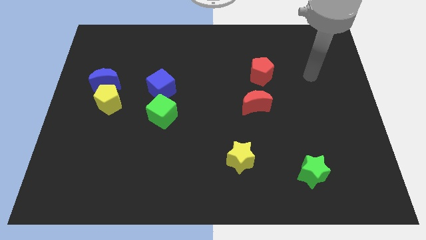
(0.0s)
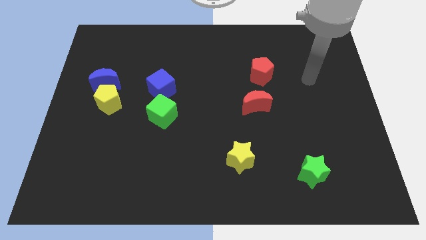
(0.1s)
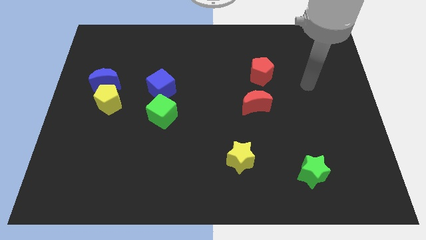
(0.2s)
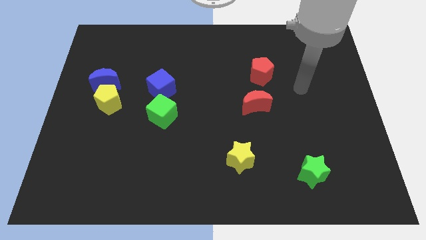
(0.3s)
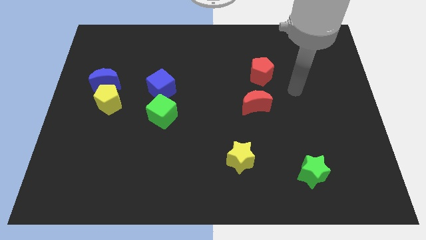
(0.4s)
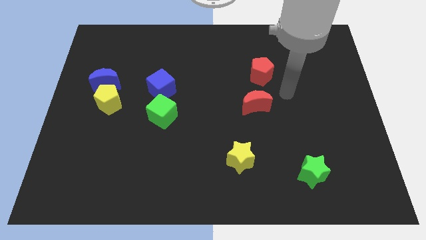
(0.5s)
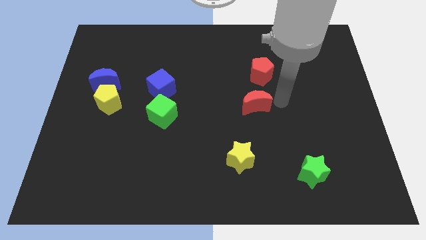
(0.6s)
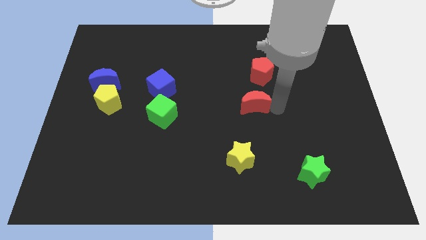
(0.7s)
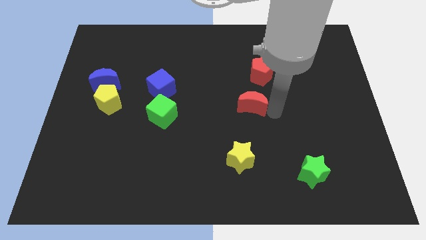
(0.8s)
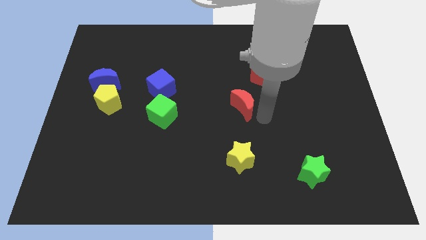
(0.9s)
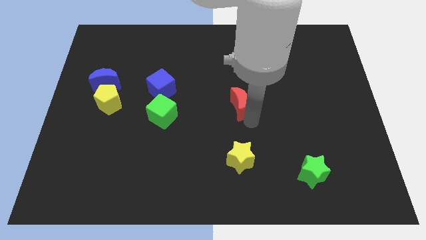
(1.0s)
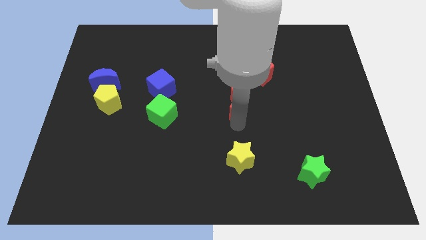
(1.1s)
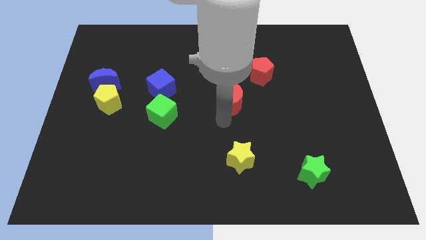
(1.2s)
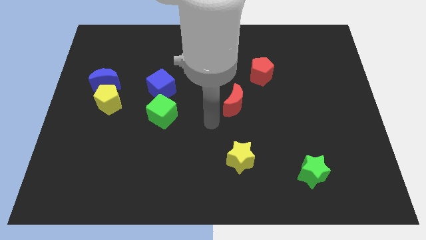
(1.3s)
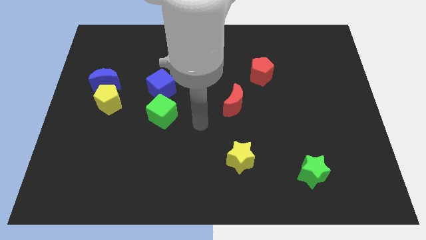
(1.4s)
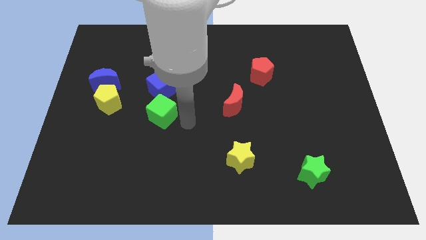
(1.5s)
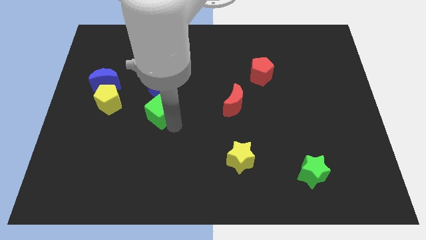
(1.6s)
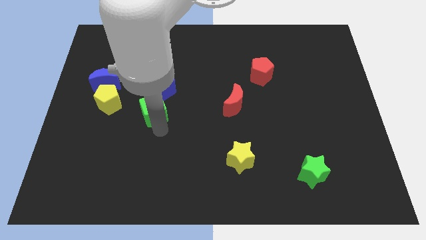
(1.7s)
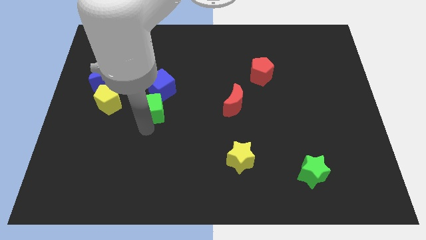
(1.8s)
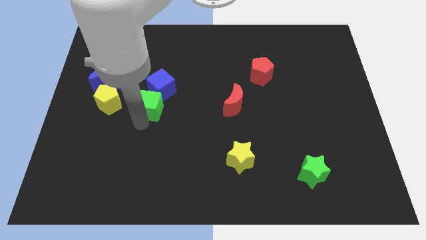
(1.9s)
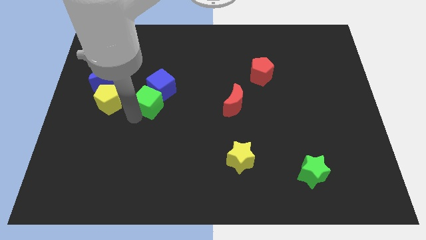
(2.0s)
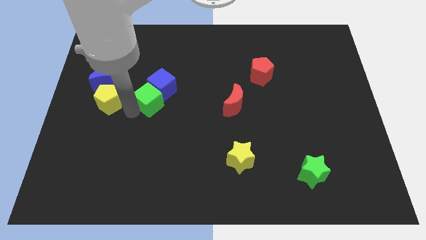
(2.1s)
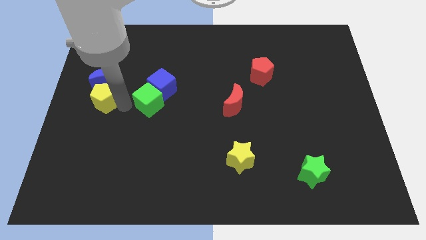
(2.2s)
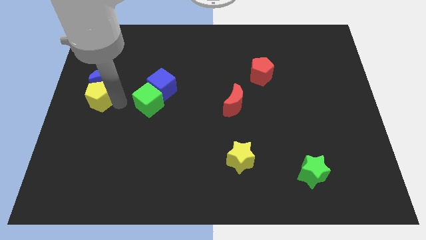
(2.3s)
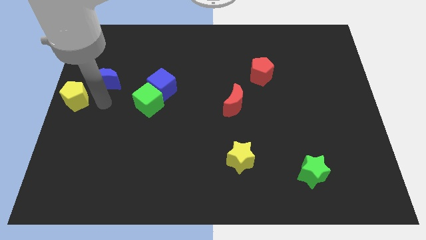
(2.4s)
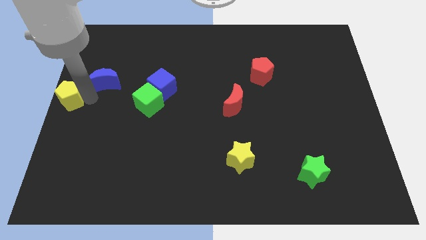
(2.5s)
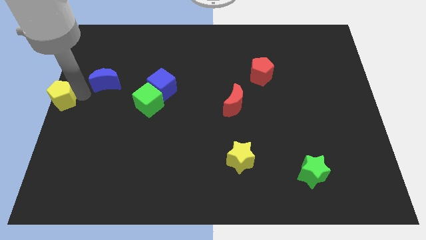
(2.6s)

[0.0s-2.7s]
separate the blue moon from the yellow pentagon

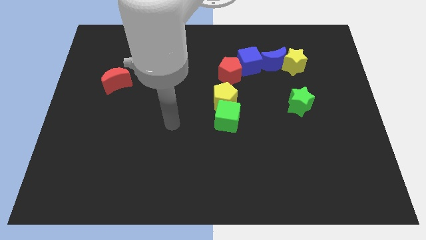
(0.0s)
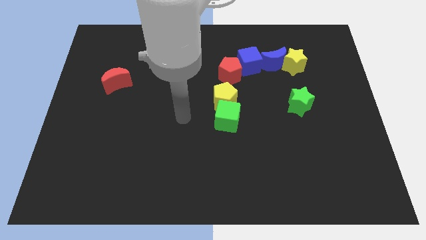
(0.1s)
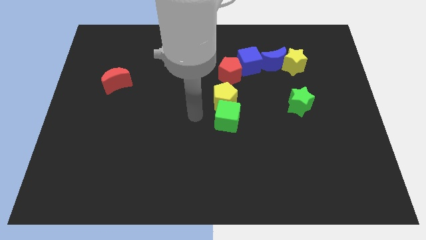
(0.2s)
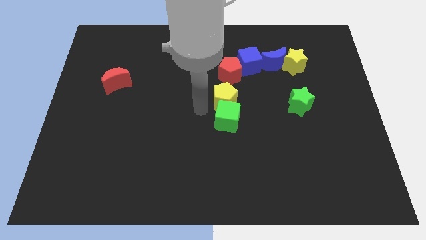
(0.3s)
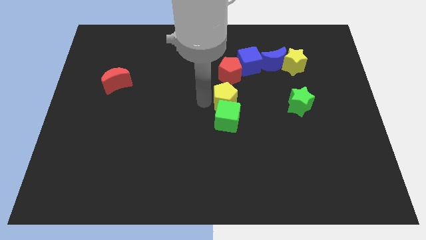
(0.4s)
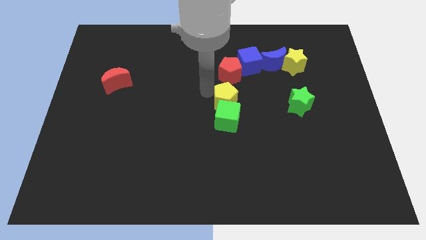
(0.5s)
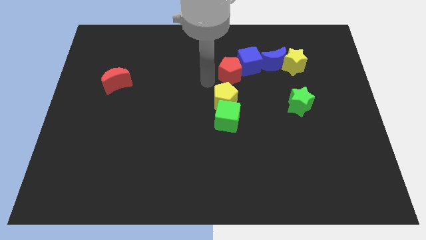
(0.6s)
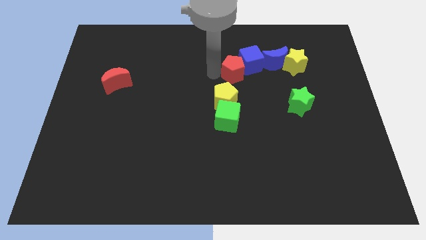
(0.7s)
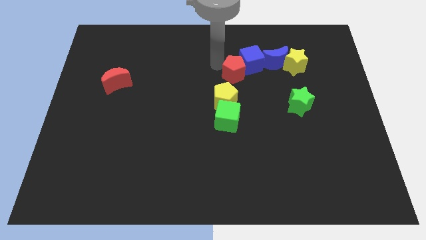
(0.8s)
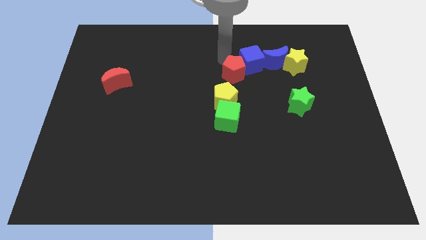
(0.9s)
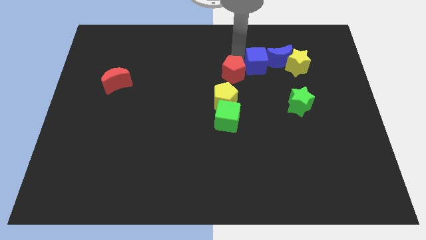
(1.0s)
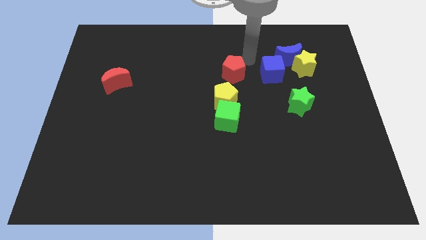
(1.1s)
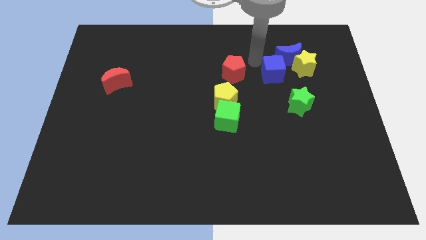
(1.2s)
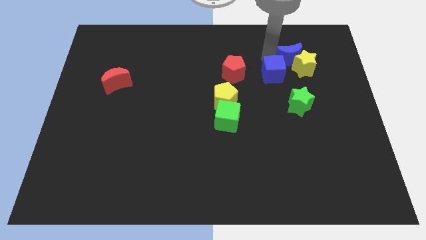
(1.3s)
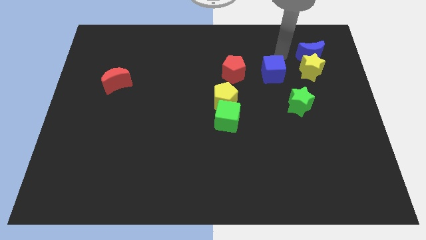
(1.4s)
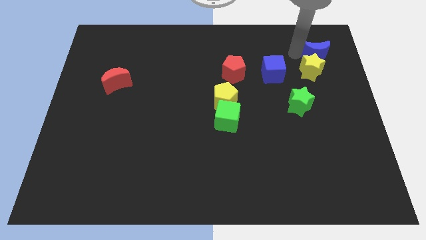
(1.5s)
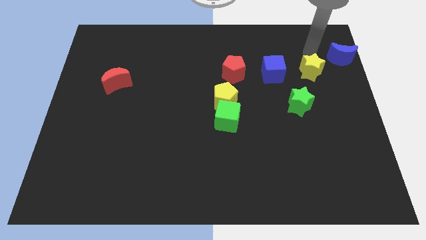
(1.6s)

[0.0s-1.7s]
move the yellow star away from the blue moon

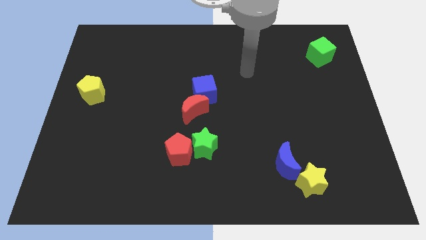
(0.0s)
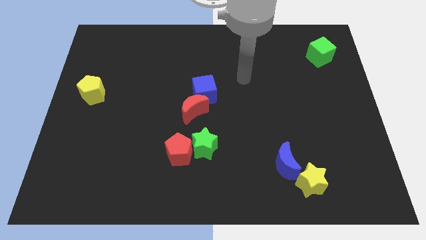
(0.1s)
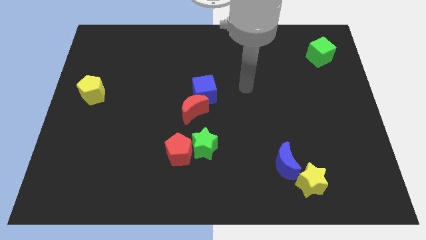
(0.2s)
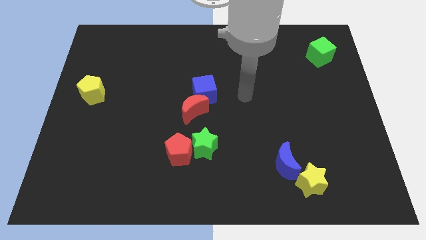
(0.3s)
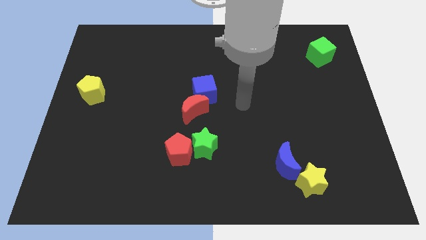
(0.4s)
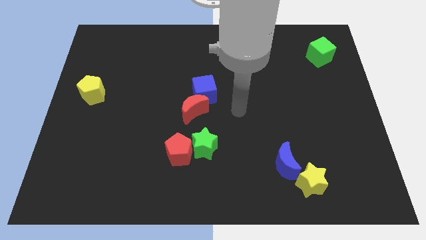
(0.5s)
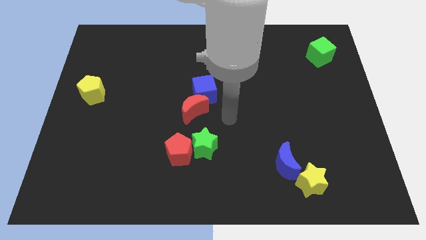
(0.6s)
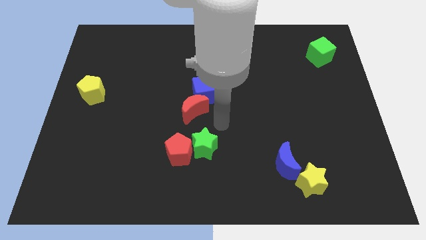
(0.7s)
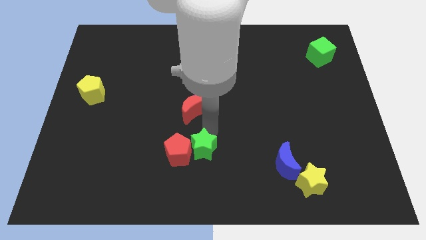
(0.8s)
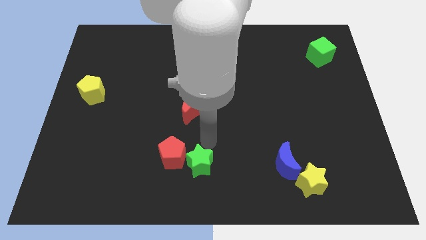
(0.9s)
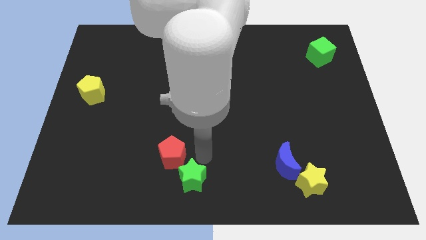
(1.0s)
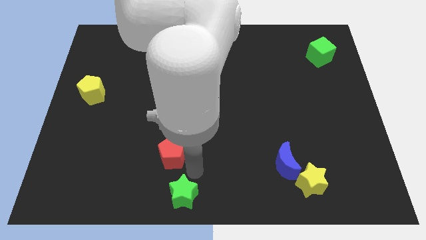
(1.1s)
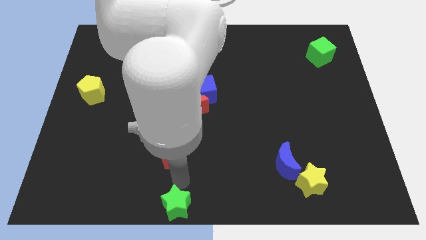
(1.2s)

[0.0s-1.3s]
separate the red pentagon from the green star

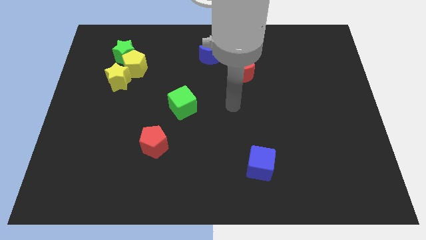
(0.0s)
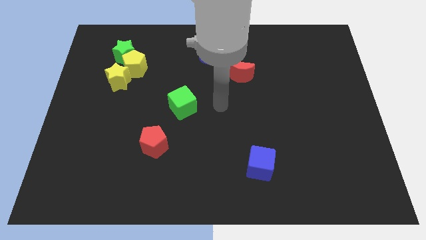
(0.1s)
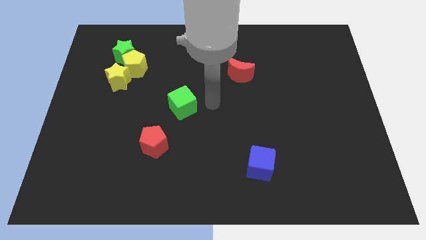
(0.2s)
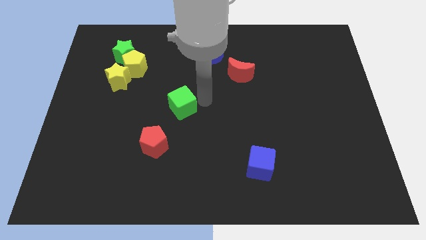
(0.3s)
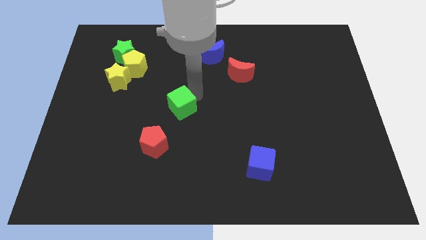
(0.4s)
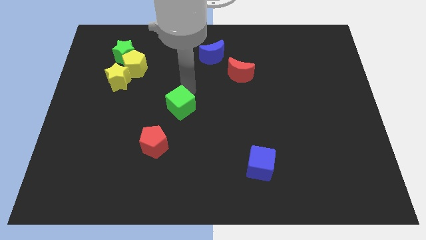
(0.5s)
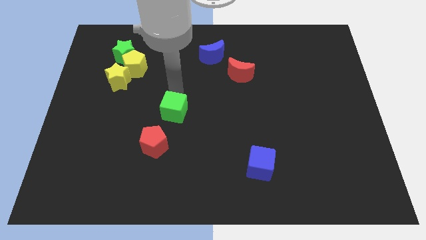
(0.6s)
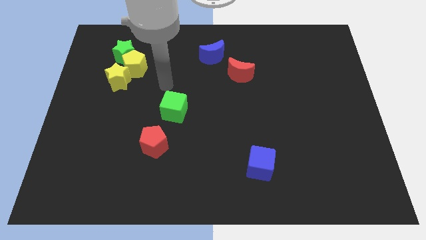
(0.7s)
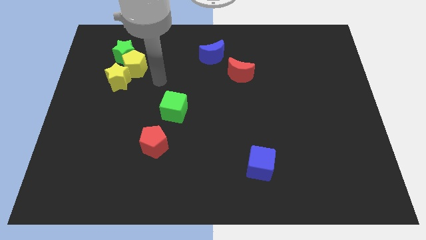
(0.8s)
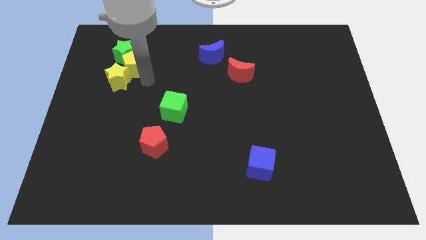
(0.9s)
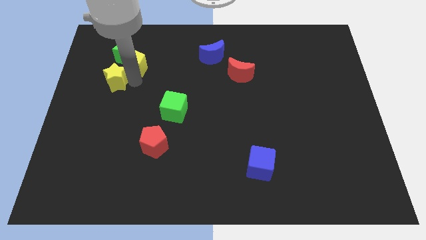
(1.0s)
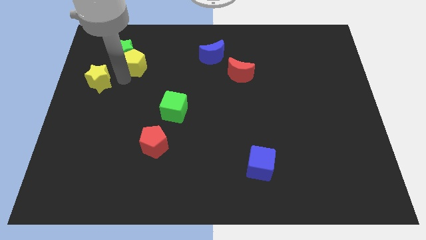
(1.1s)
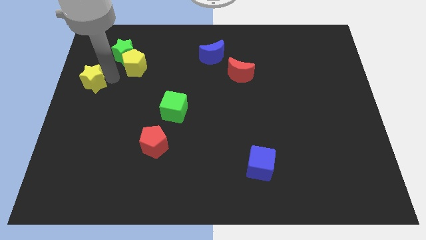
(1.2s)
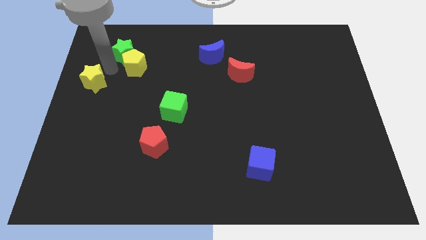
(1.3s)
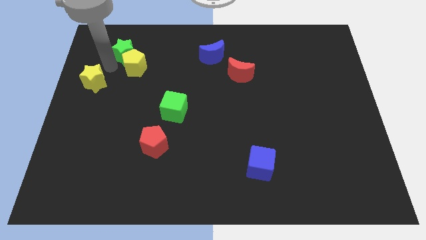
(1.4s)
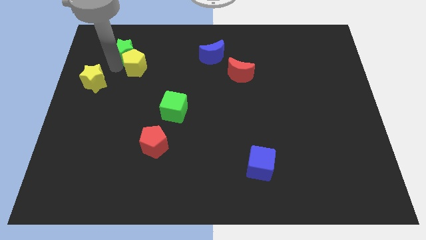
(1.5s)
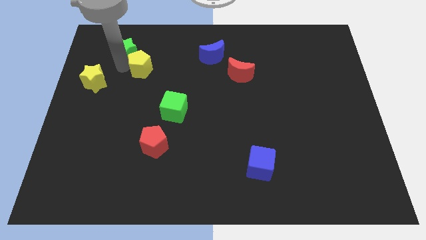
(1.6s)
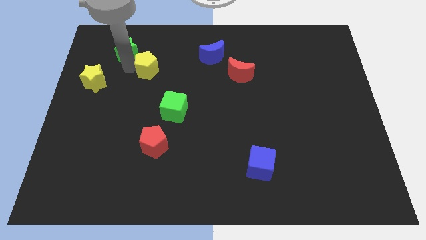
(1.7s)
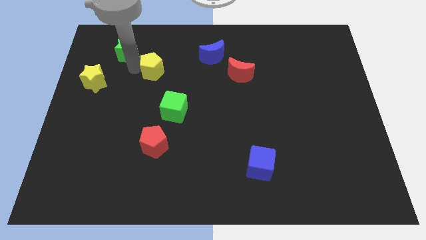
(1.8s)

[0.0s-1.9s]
separate the yellow pentagon from the green star and yellow star

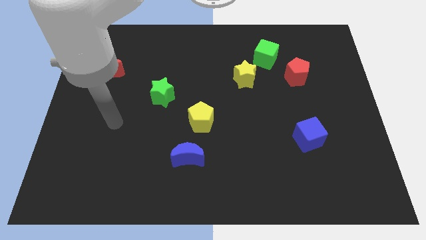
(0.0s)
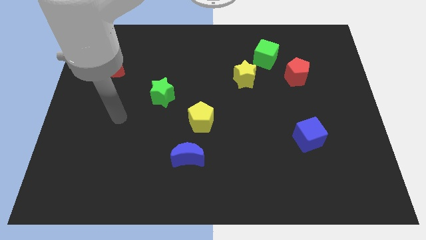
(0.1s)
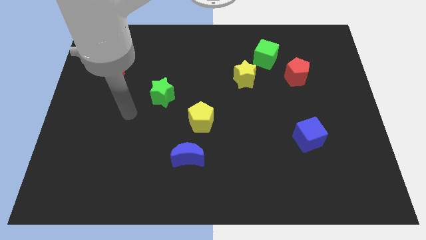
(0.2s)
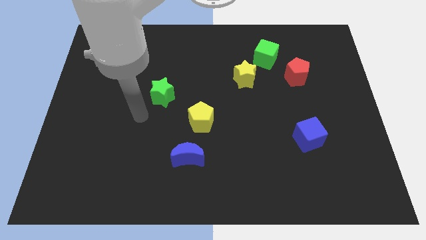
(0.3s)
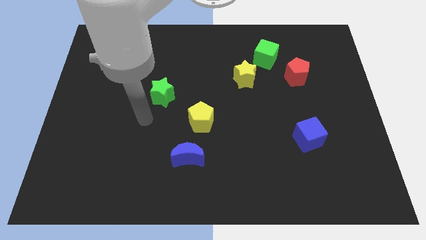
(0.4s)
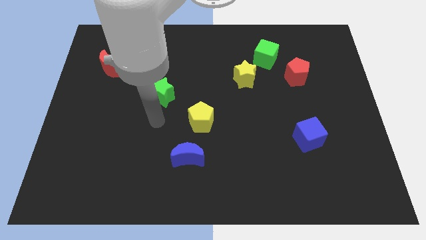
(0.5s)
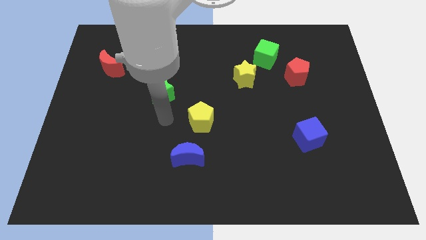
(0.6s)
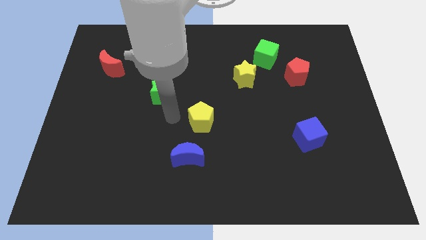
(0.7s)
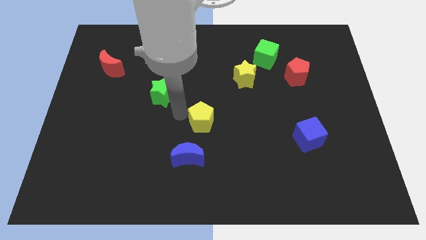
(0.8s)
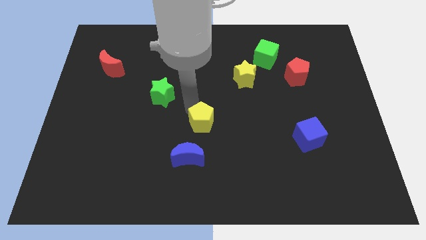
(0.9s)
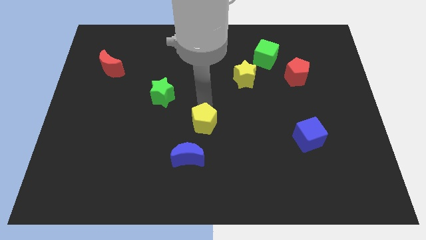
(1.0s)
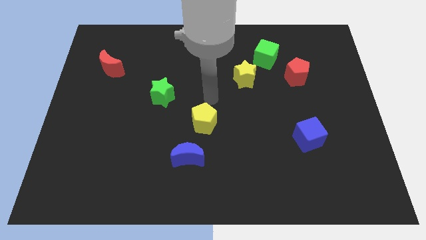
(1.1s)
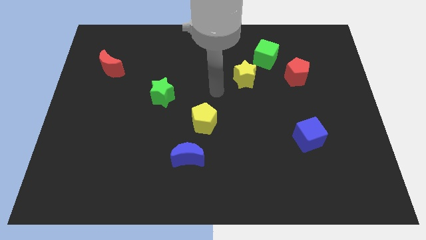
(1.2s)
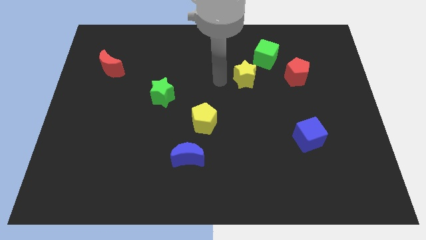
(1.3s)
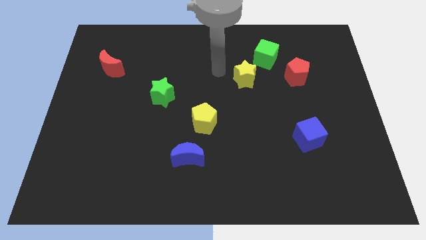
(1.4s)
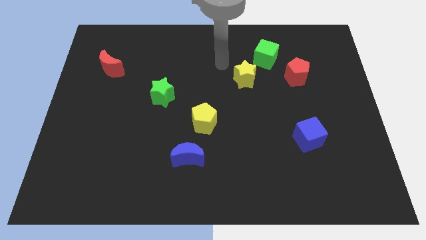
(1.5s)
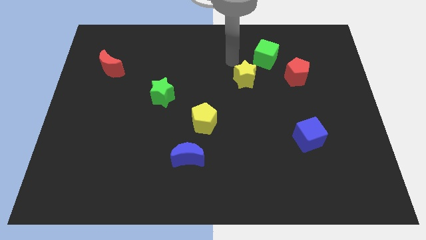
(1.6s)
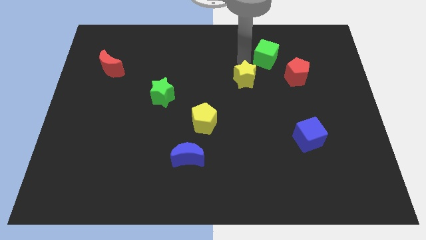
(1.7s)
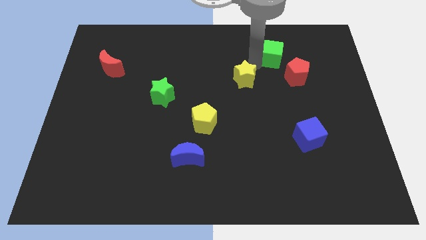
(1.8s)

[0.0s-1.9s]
move the yellow star away from the green cube
